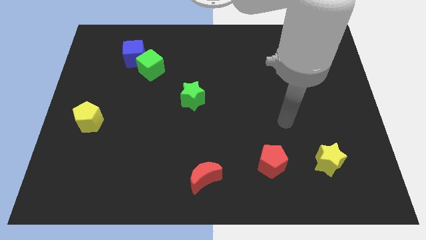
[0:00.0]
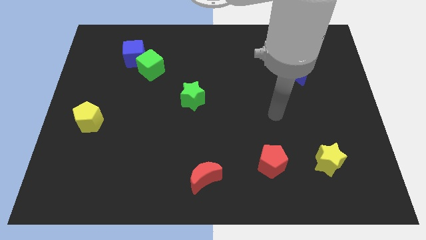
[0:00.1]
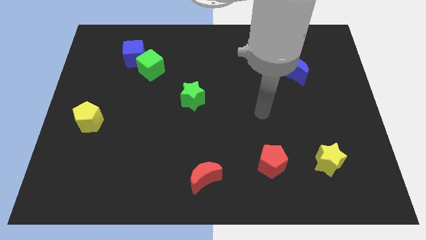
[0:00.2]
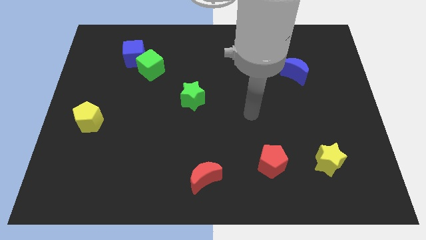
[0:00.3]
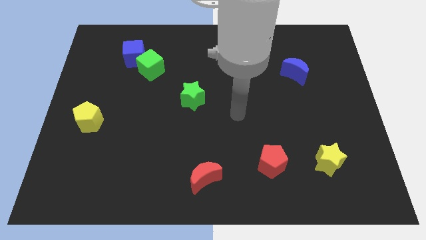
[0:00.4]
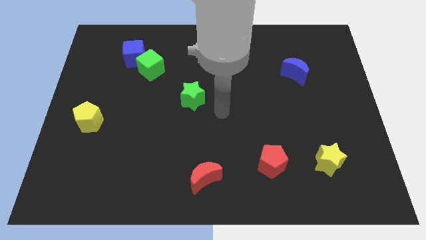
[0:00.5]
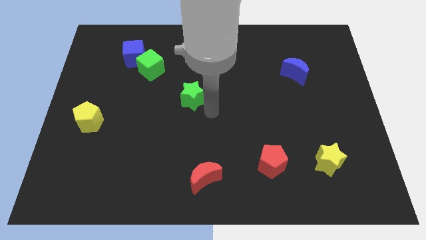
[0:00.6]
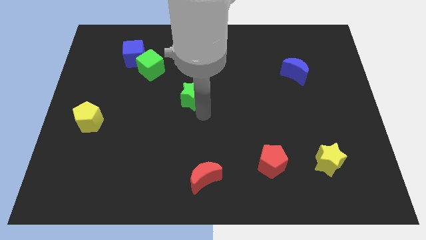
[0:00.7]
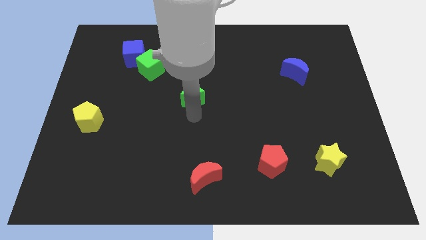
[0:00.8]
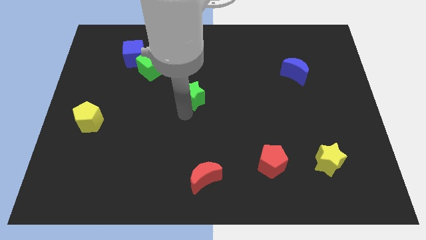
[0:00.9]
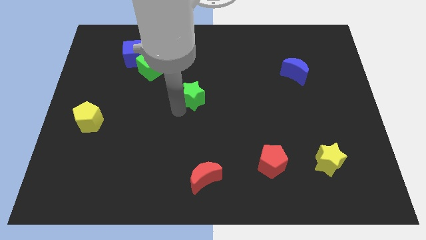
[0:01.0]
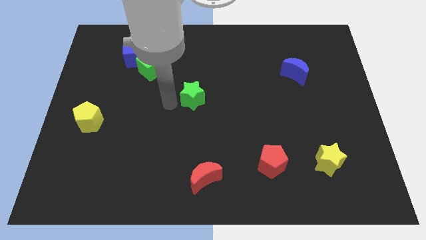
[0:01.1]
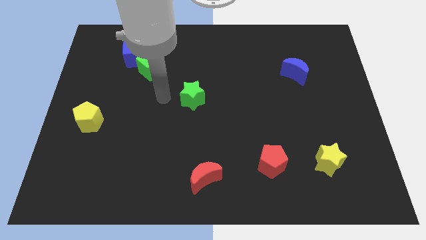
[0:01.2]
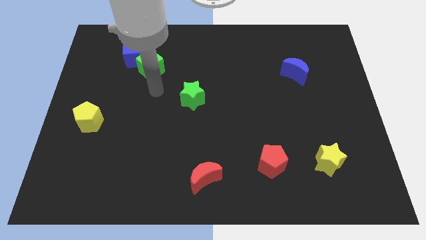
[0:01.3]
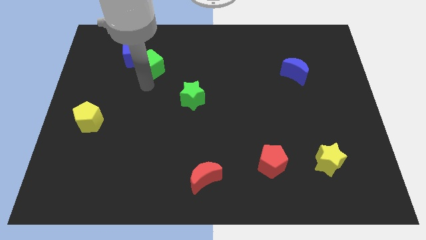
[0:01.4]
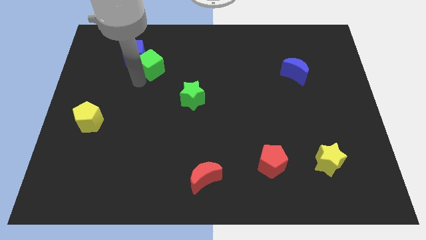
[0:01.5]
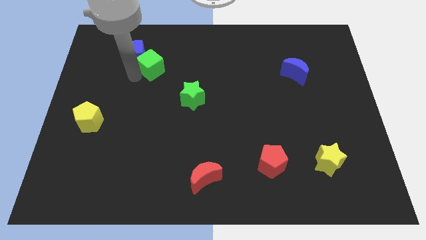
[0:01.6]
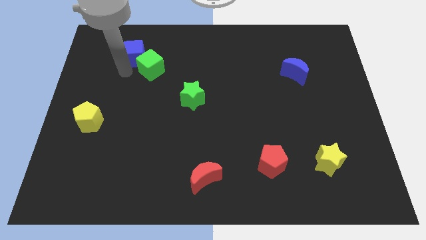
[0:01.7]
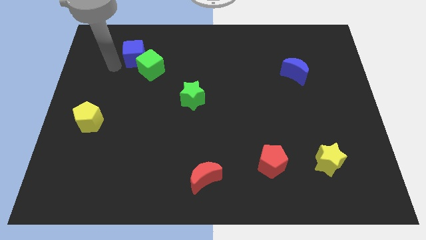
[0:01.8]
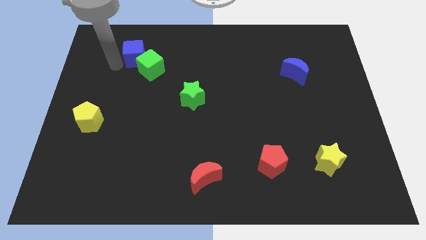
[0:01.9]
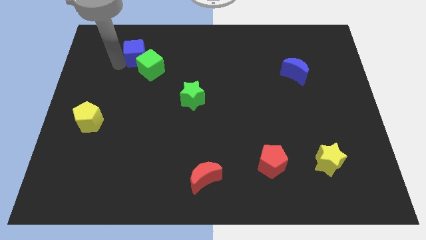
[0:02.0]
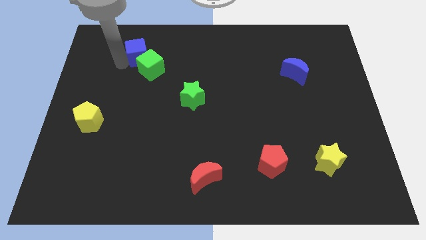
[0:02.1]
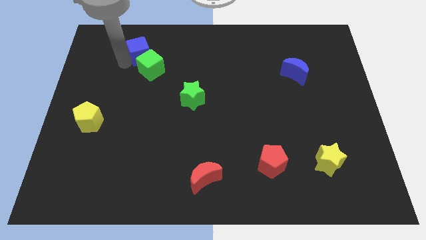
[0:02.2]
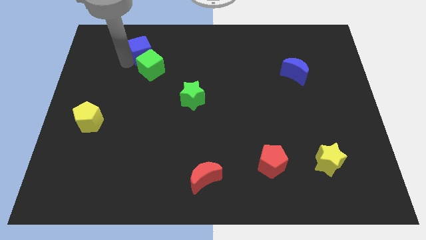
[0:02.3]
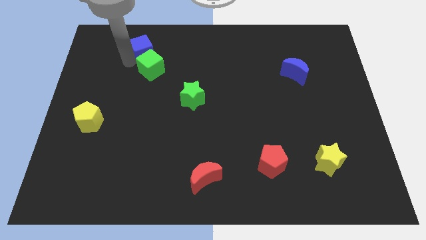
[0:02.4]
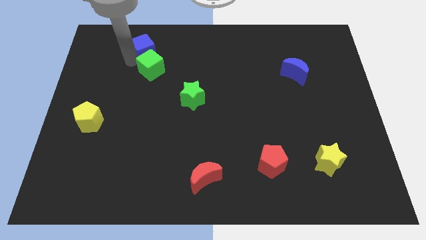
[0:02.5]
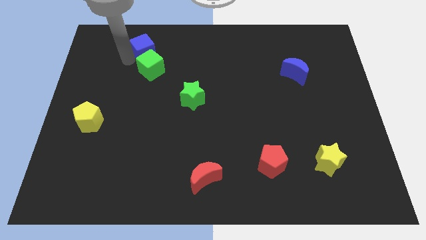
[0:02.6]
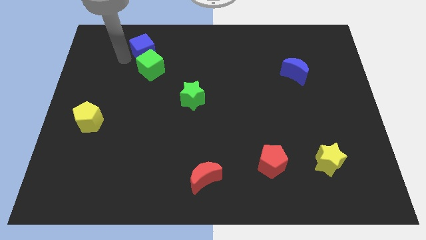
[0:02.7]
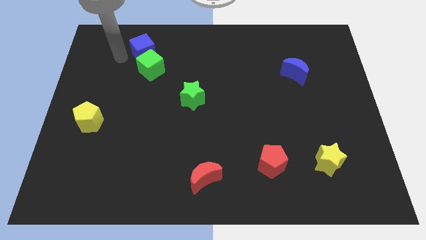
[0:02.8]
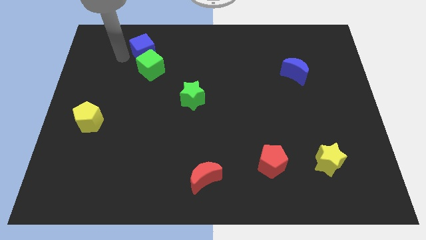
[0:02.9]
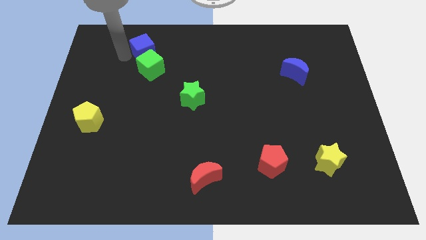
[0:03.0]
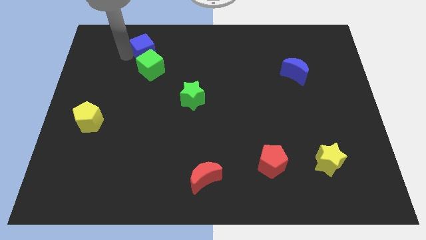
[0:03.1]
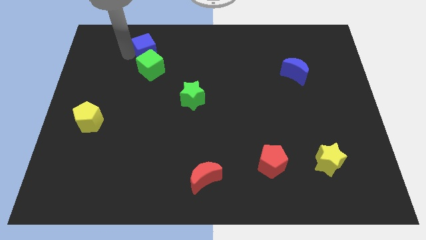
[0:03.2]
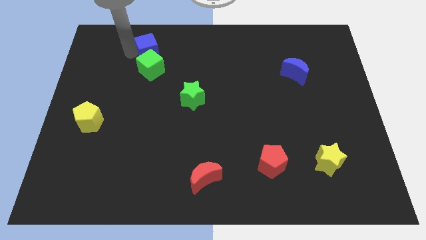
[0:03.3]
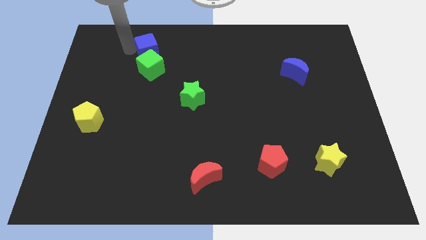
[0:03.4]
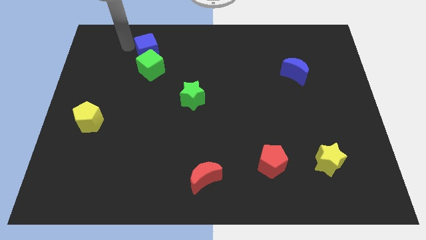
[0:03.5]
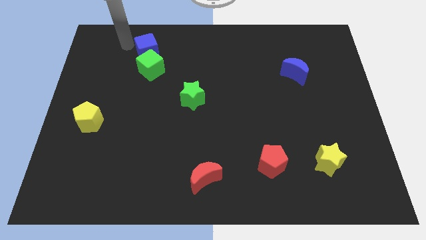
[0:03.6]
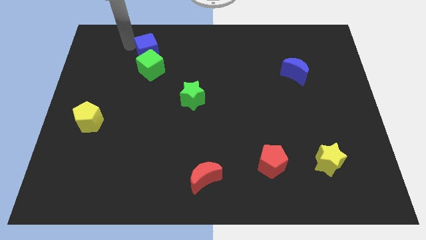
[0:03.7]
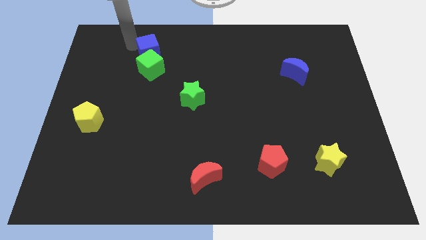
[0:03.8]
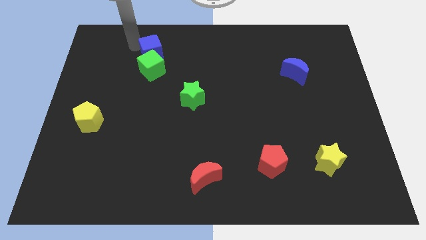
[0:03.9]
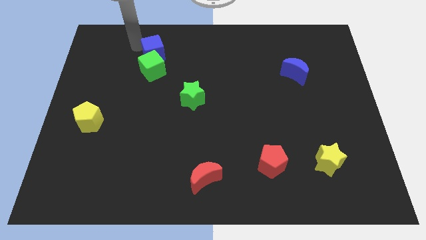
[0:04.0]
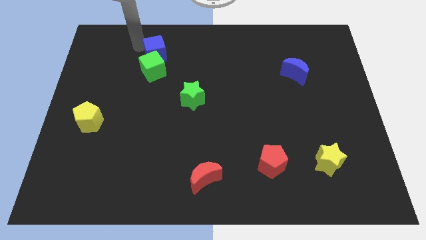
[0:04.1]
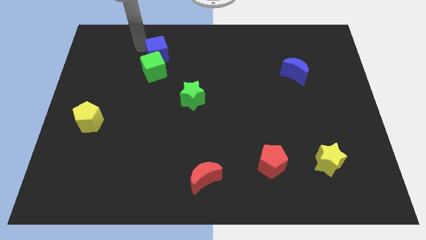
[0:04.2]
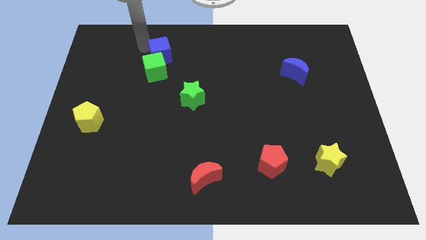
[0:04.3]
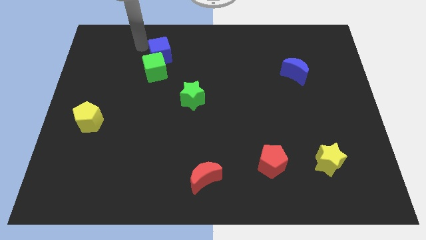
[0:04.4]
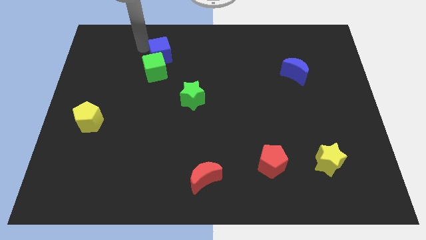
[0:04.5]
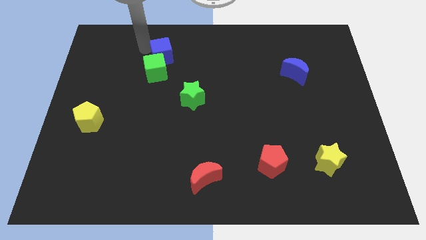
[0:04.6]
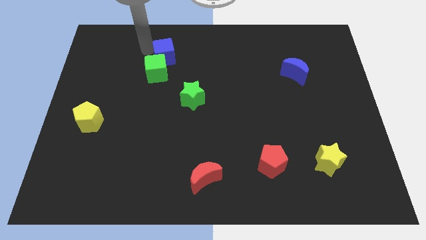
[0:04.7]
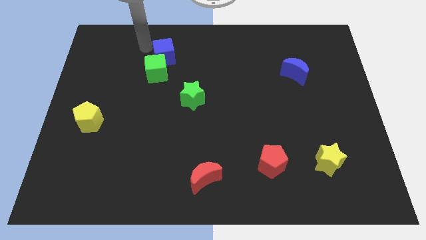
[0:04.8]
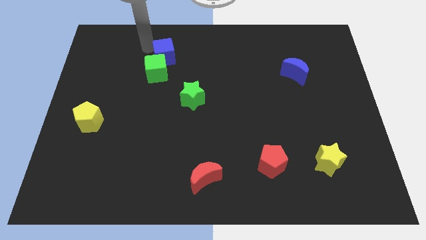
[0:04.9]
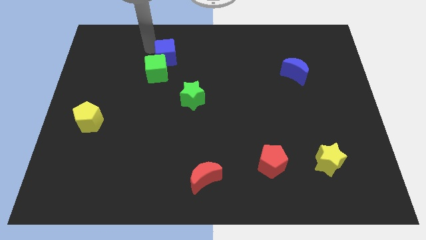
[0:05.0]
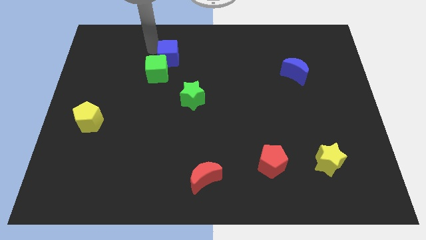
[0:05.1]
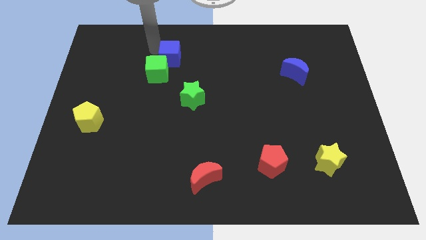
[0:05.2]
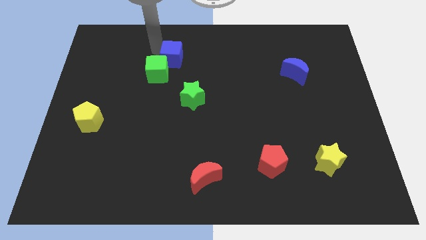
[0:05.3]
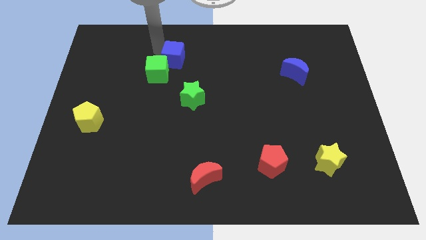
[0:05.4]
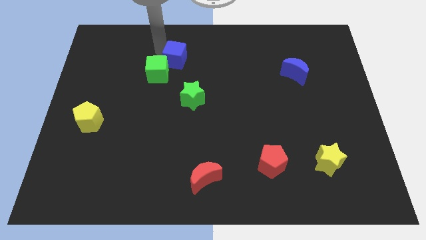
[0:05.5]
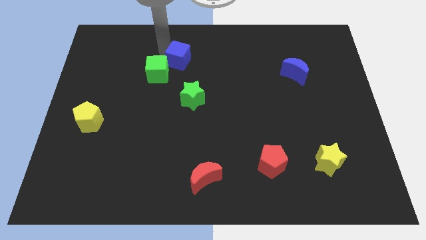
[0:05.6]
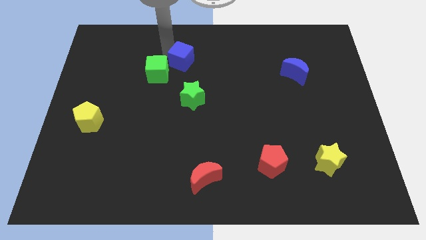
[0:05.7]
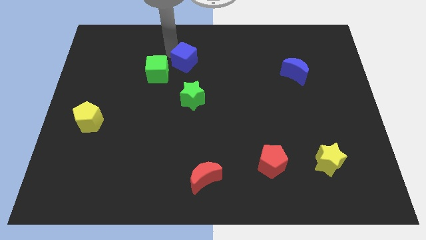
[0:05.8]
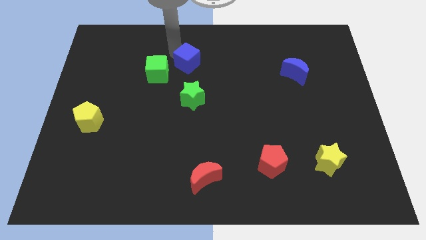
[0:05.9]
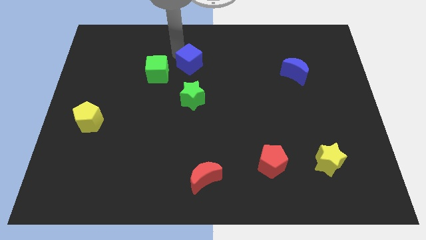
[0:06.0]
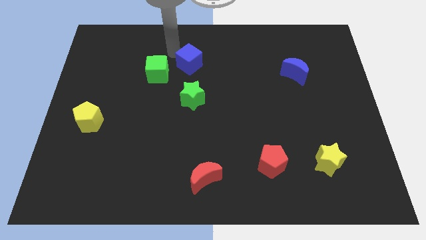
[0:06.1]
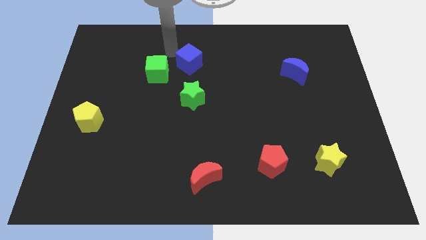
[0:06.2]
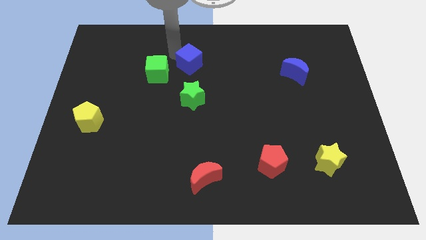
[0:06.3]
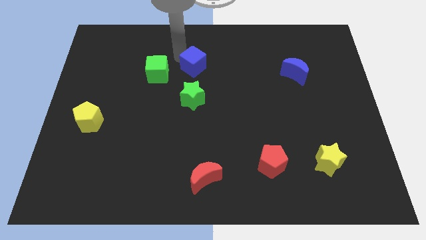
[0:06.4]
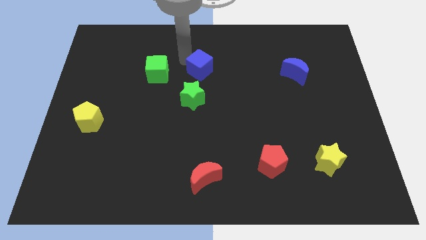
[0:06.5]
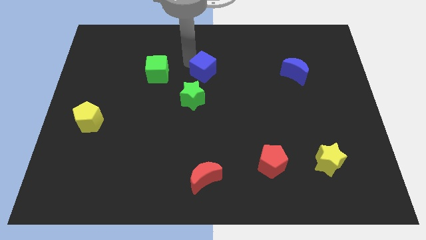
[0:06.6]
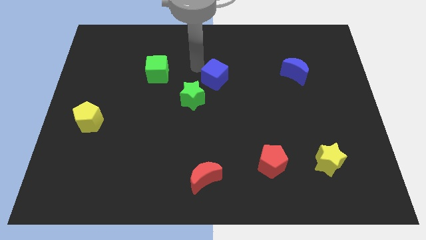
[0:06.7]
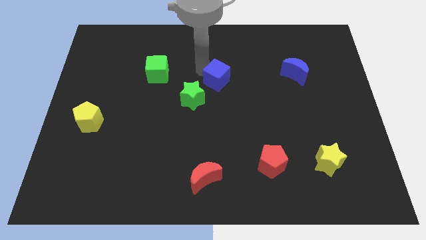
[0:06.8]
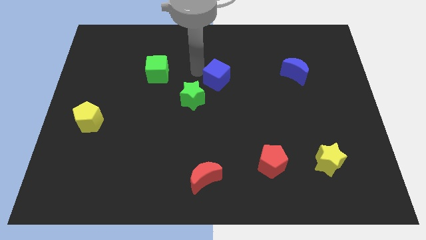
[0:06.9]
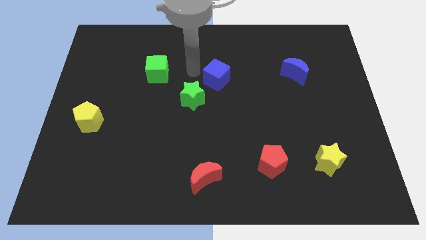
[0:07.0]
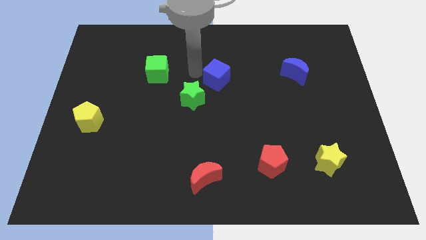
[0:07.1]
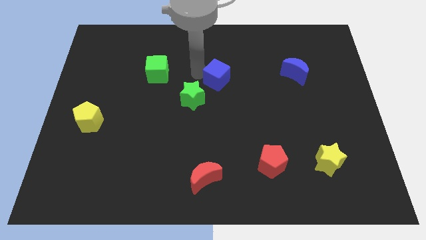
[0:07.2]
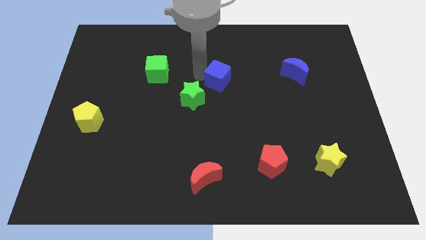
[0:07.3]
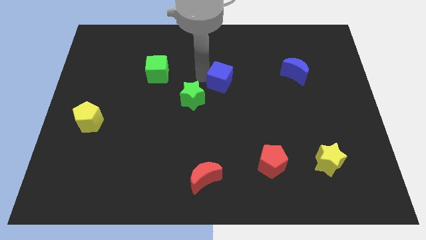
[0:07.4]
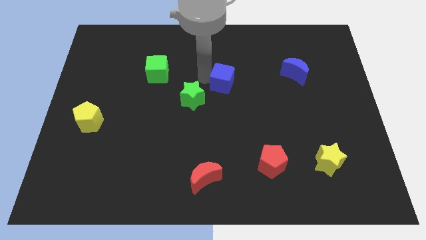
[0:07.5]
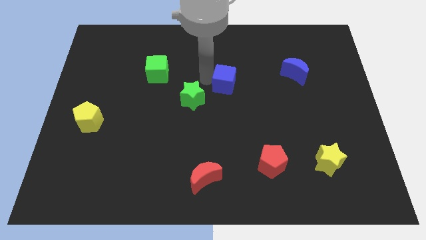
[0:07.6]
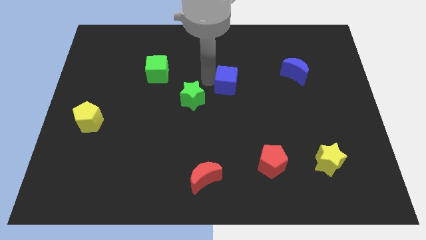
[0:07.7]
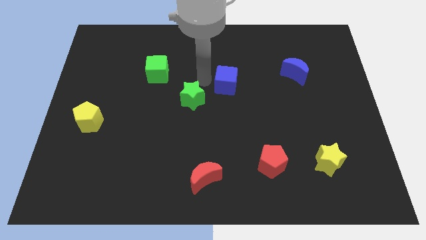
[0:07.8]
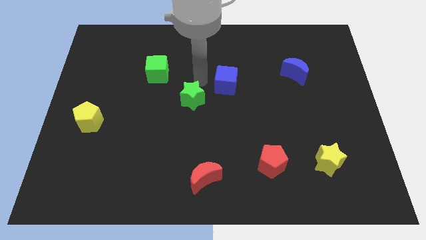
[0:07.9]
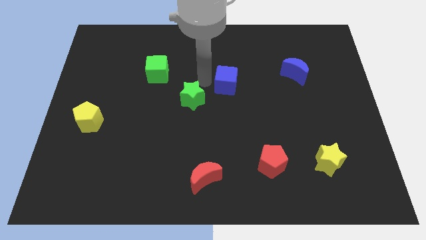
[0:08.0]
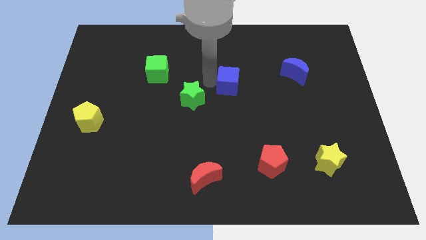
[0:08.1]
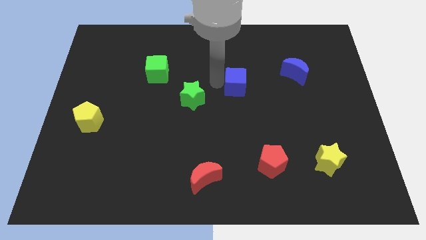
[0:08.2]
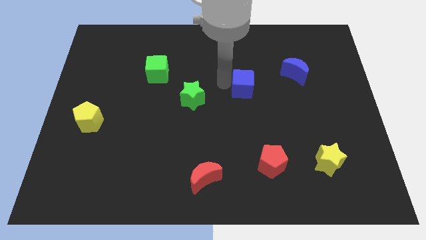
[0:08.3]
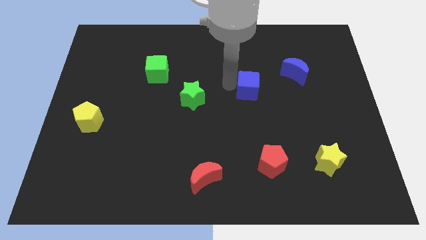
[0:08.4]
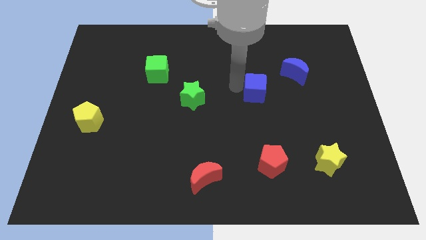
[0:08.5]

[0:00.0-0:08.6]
move the blue cube to the bottom left of the blue moon
